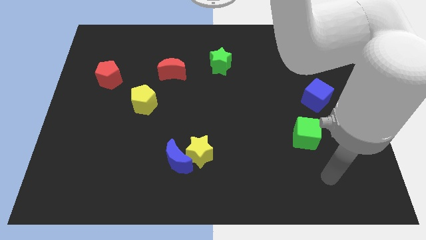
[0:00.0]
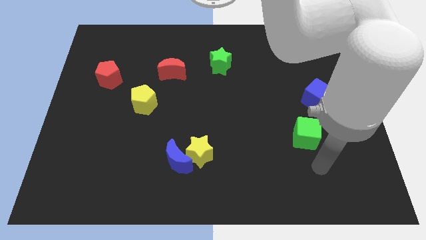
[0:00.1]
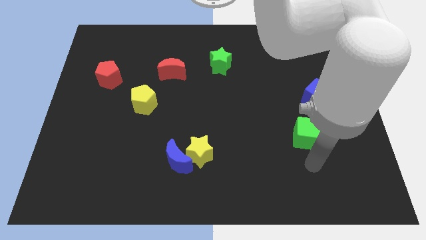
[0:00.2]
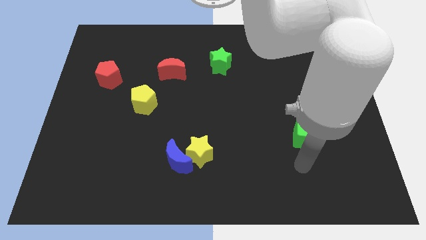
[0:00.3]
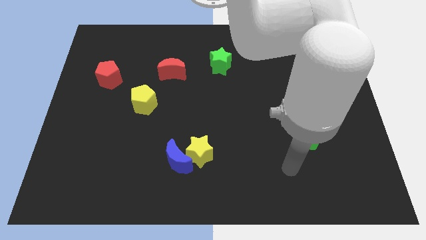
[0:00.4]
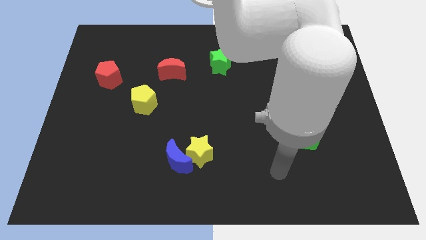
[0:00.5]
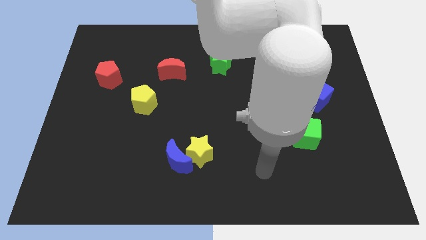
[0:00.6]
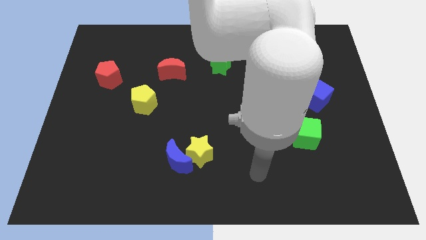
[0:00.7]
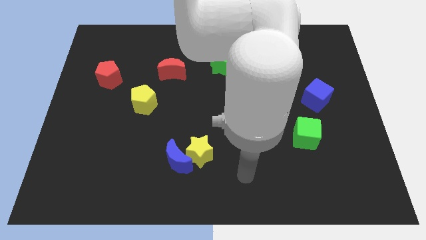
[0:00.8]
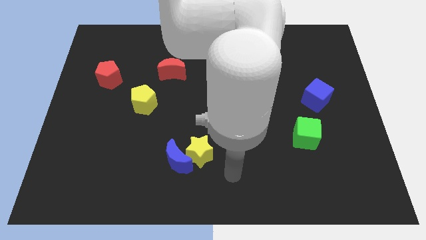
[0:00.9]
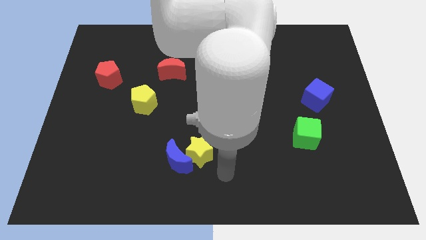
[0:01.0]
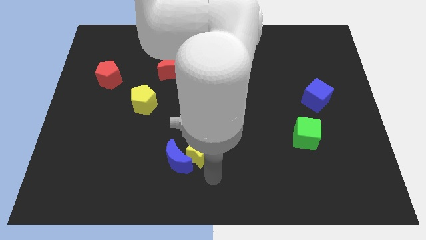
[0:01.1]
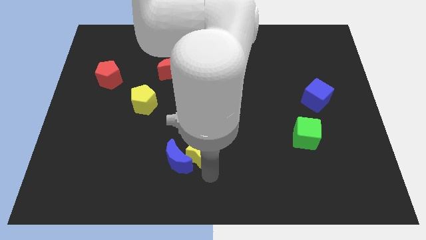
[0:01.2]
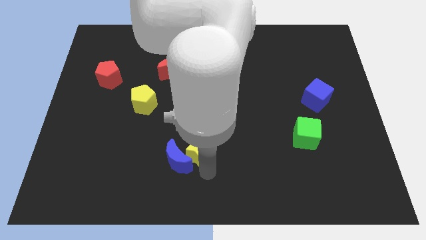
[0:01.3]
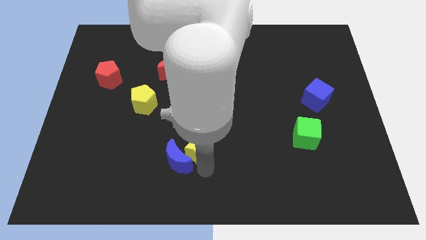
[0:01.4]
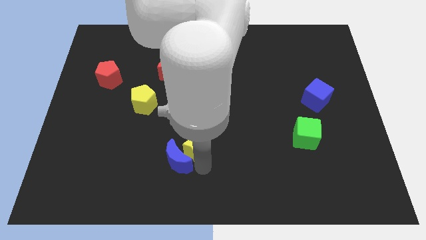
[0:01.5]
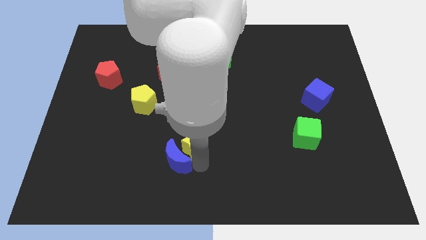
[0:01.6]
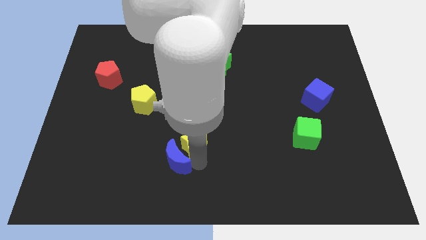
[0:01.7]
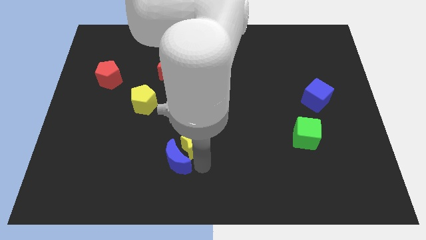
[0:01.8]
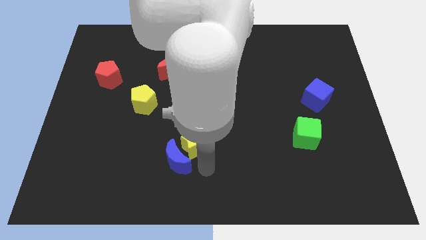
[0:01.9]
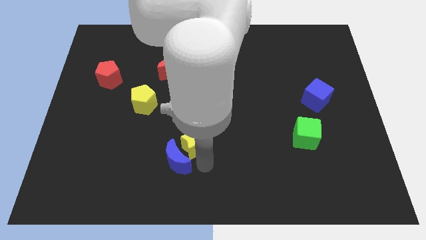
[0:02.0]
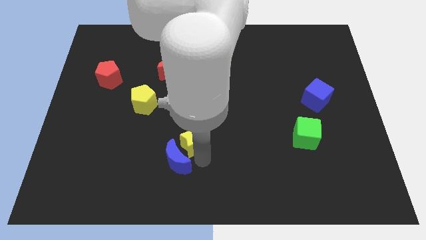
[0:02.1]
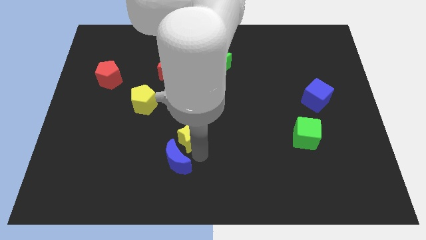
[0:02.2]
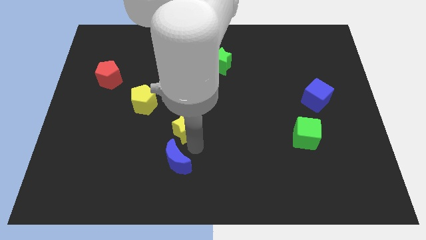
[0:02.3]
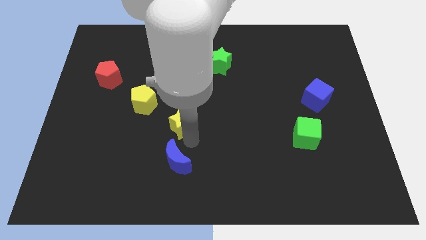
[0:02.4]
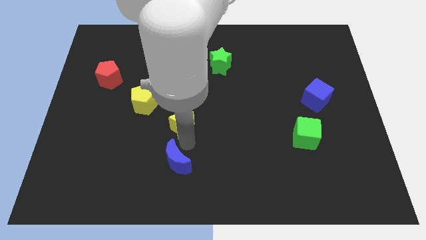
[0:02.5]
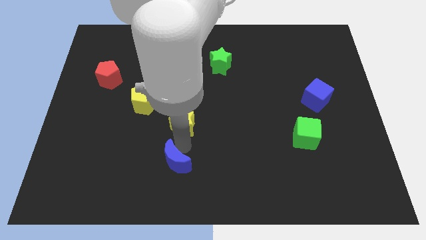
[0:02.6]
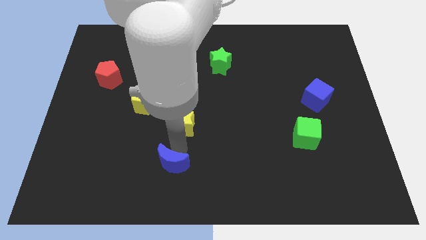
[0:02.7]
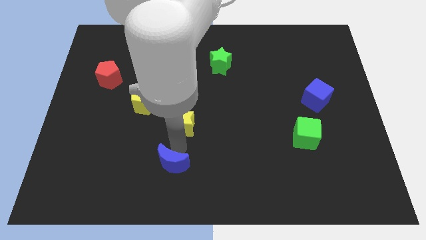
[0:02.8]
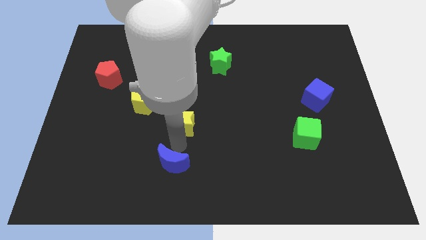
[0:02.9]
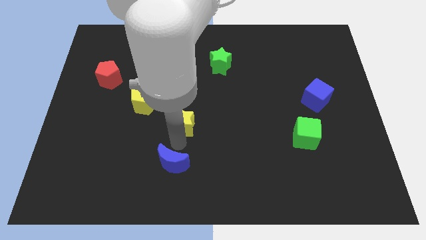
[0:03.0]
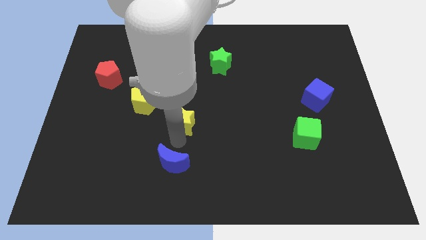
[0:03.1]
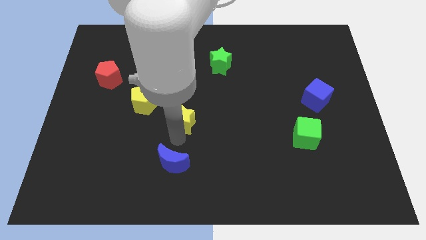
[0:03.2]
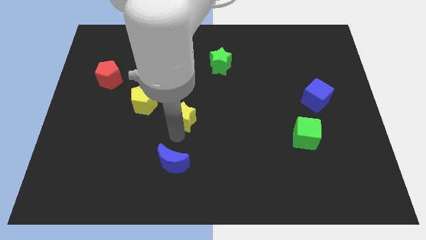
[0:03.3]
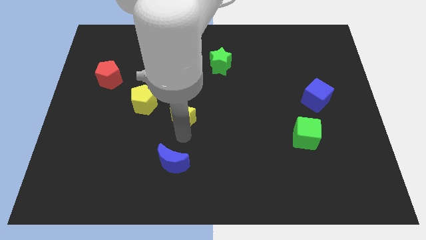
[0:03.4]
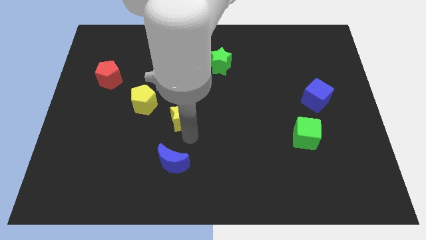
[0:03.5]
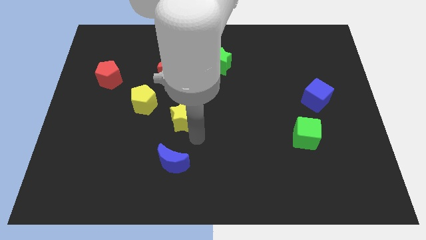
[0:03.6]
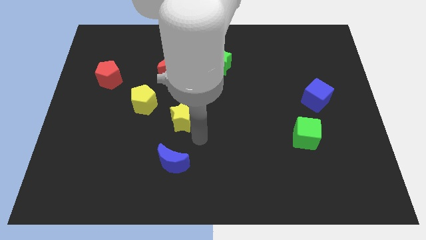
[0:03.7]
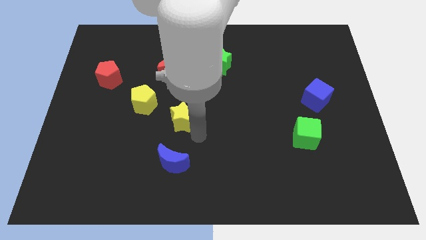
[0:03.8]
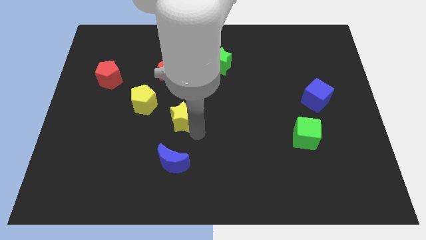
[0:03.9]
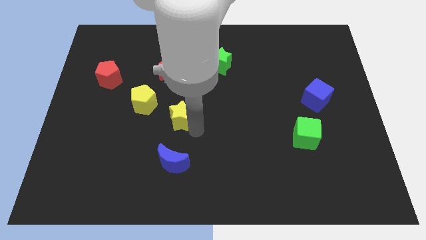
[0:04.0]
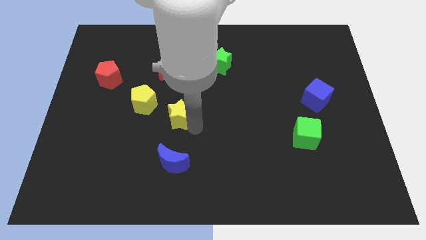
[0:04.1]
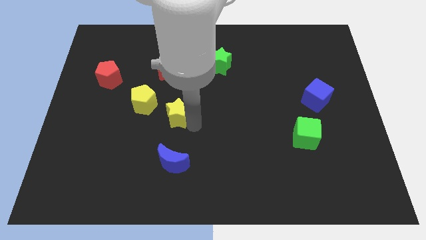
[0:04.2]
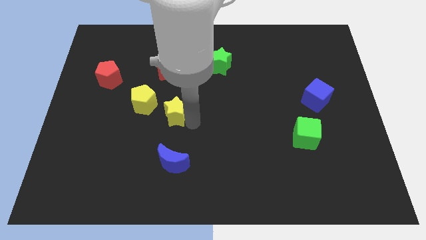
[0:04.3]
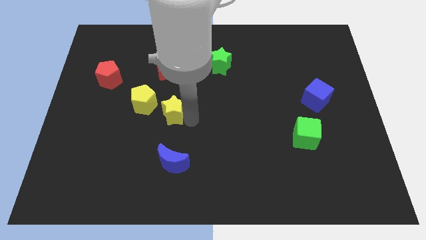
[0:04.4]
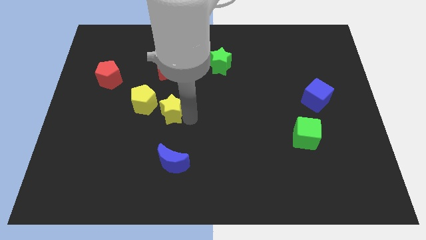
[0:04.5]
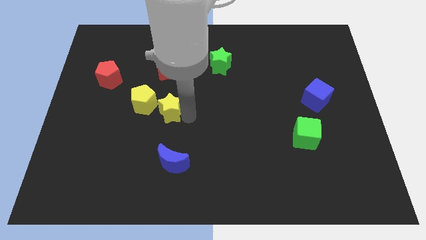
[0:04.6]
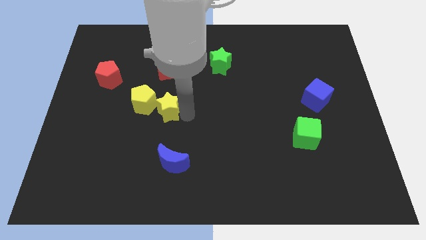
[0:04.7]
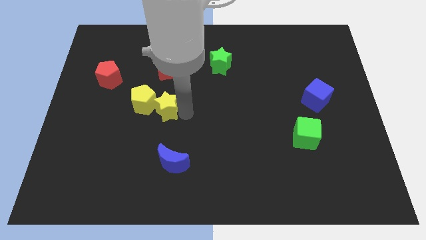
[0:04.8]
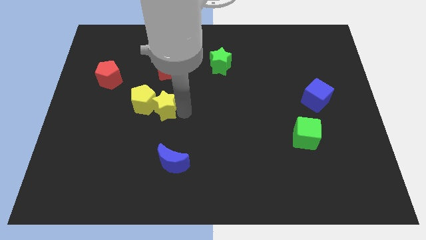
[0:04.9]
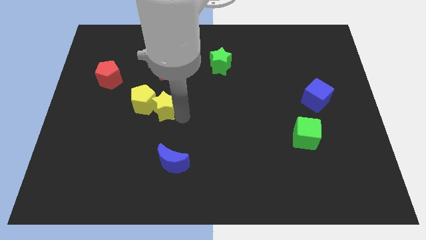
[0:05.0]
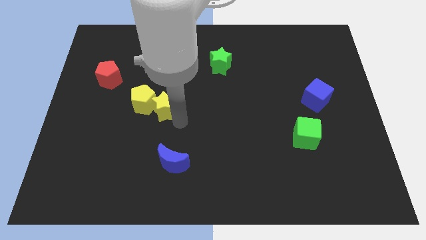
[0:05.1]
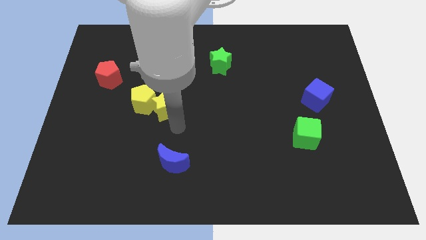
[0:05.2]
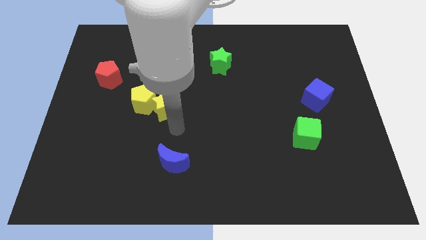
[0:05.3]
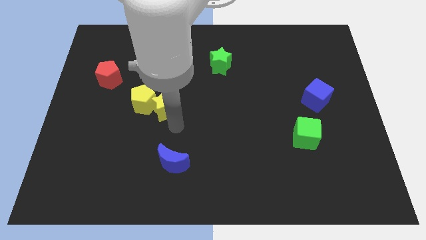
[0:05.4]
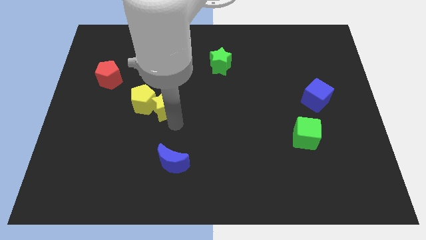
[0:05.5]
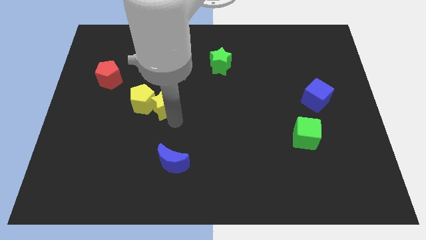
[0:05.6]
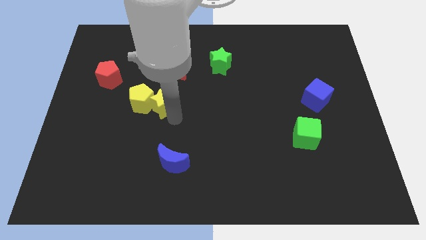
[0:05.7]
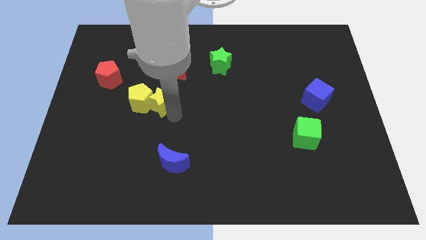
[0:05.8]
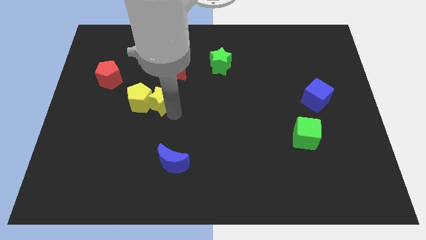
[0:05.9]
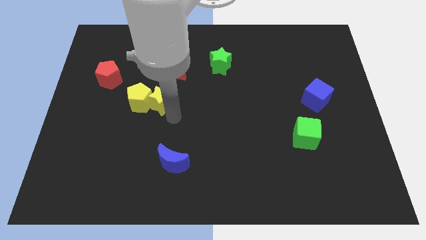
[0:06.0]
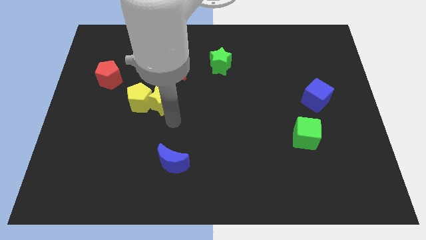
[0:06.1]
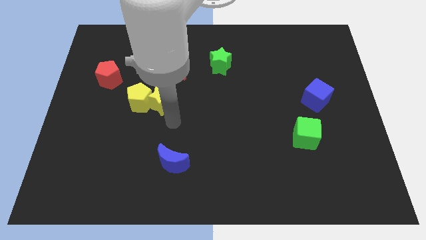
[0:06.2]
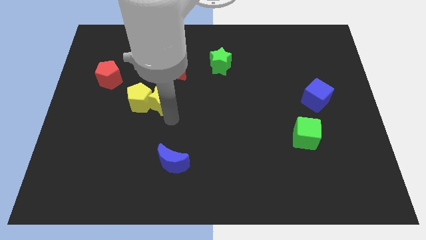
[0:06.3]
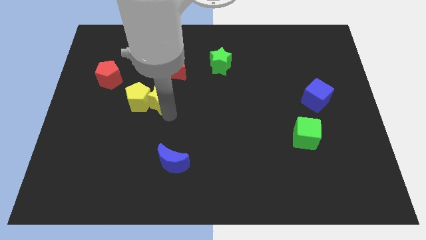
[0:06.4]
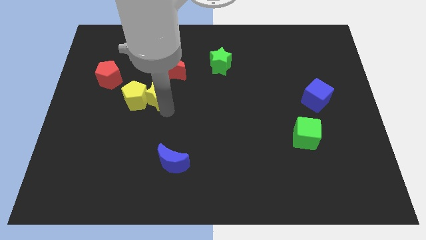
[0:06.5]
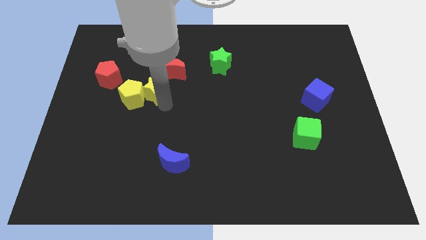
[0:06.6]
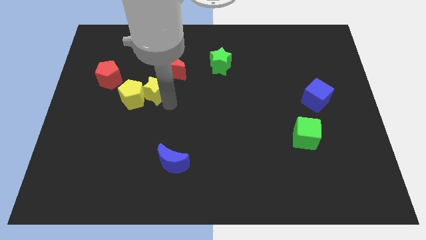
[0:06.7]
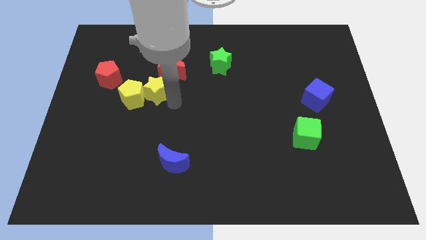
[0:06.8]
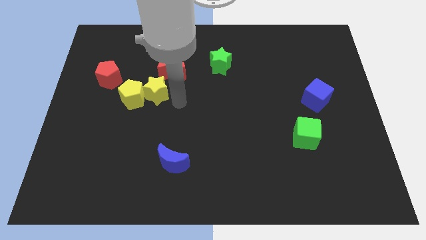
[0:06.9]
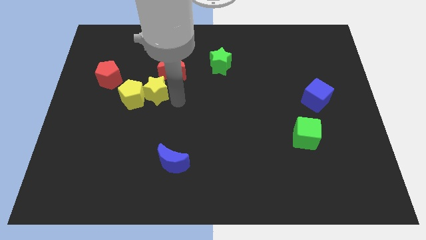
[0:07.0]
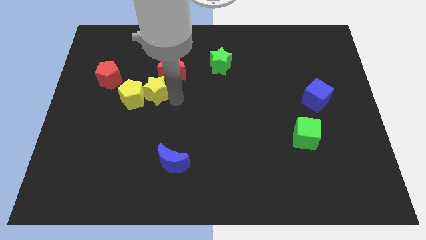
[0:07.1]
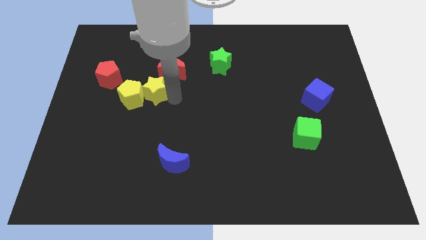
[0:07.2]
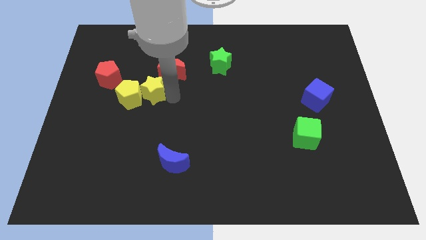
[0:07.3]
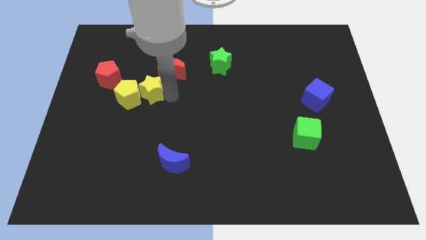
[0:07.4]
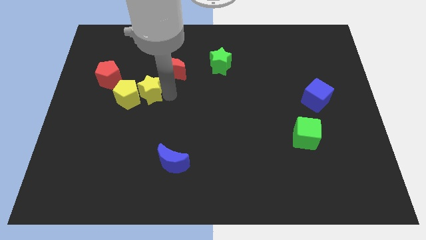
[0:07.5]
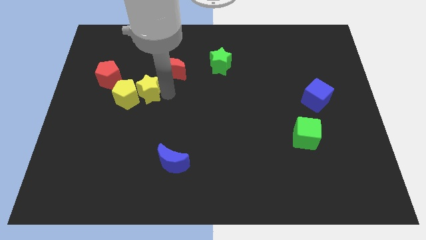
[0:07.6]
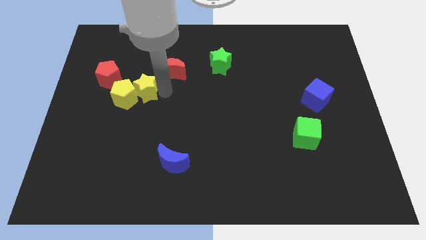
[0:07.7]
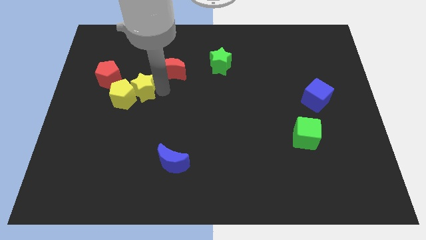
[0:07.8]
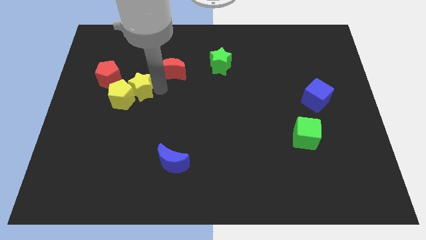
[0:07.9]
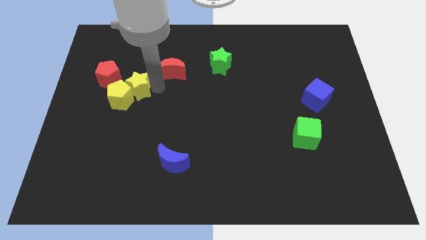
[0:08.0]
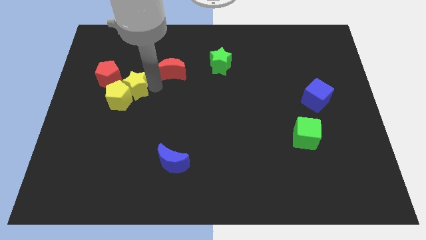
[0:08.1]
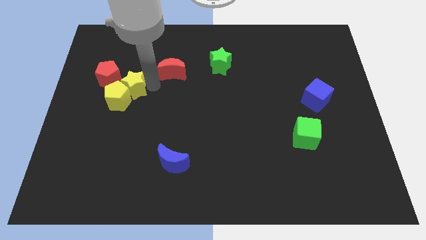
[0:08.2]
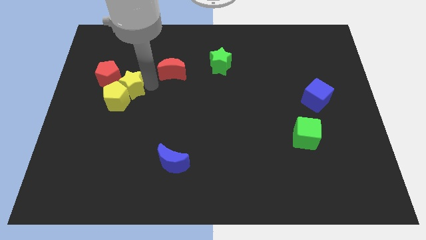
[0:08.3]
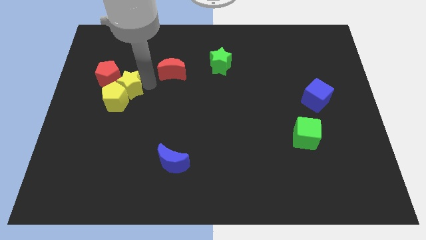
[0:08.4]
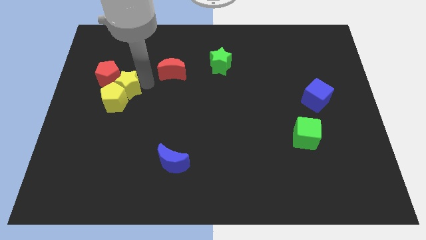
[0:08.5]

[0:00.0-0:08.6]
slide the yellow star close to the red pentagon
